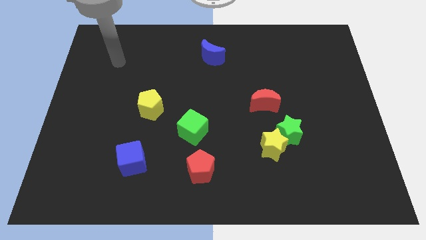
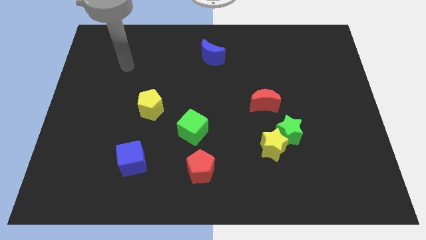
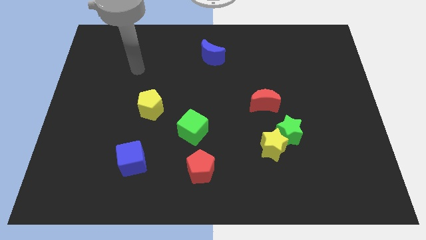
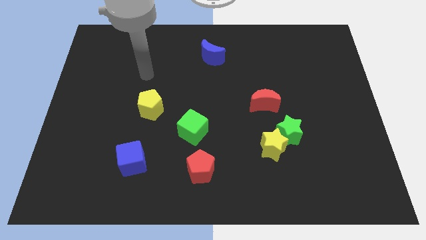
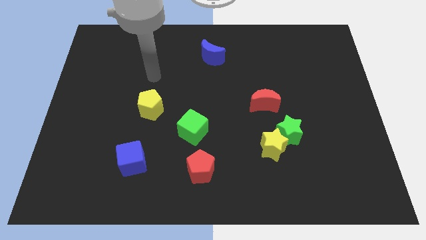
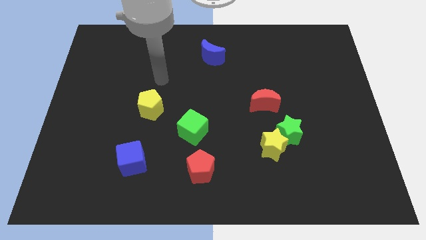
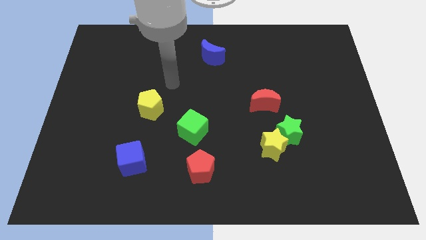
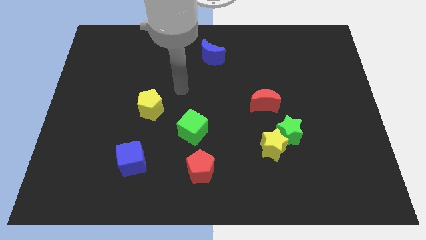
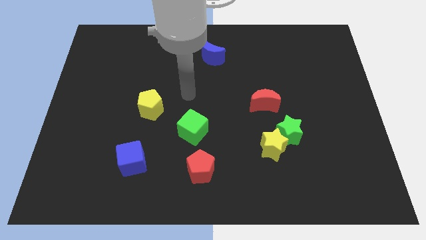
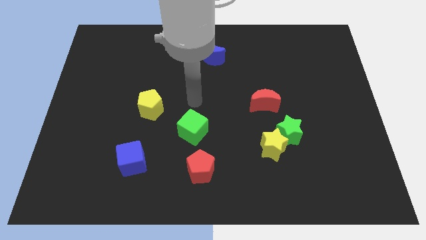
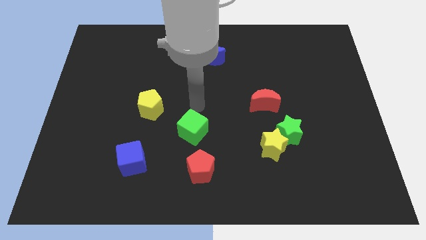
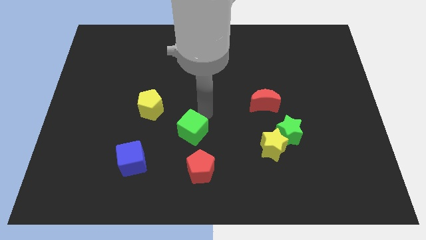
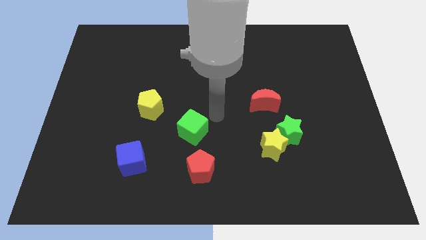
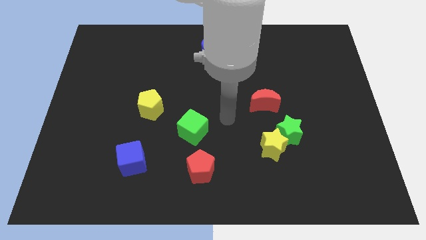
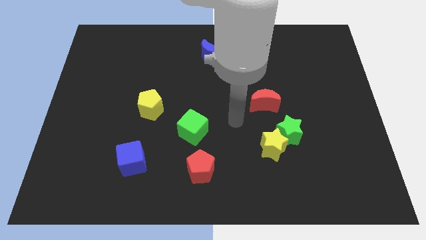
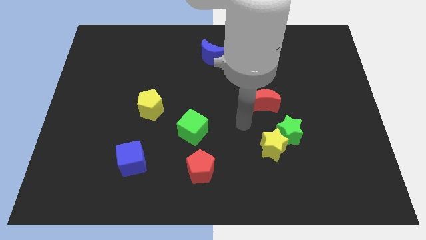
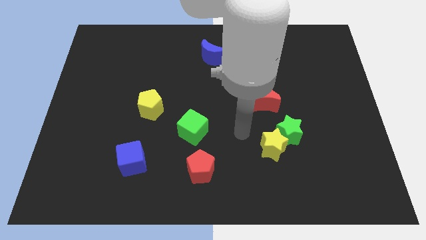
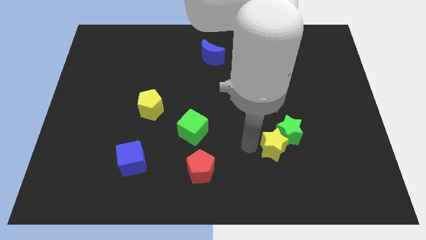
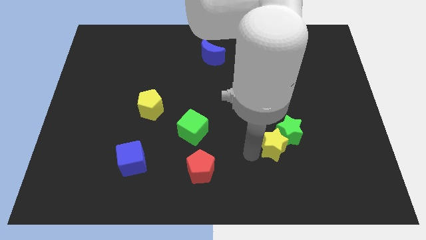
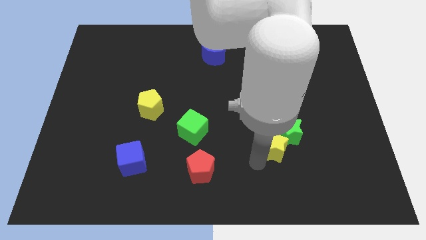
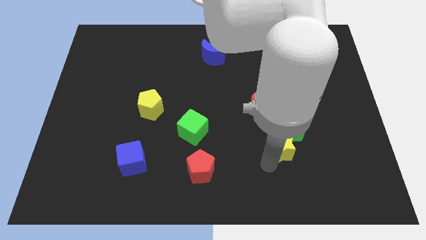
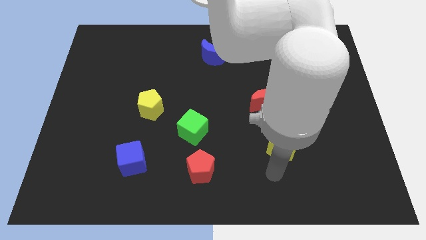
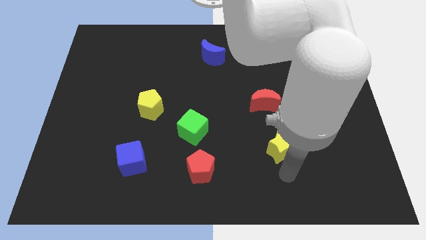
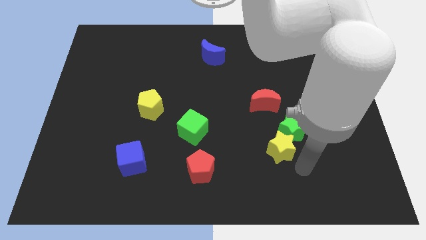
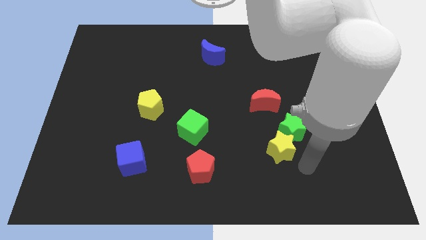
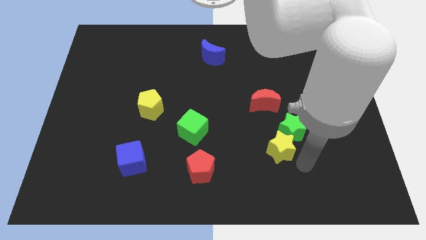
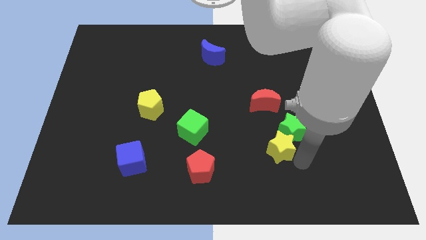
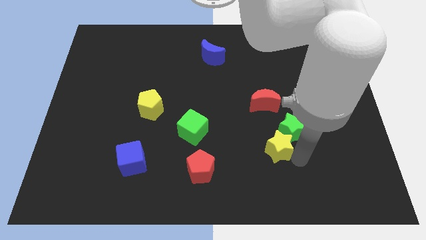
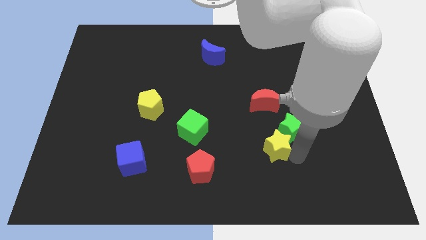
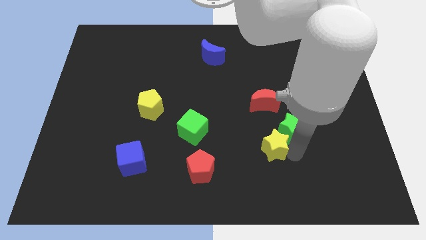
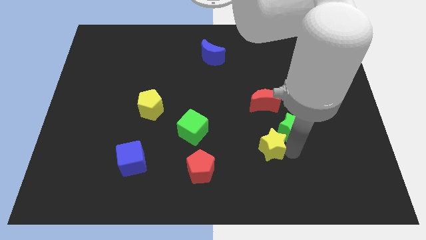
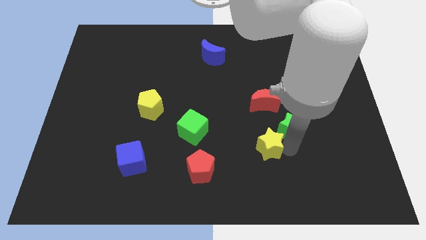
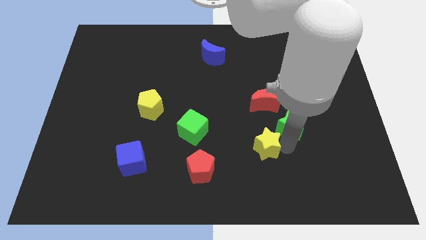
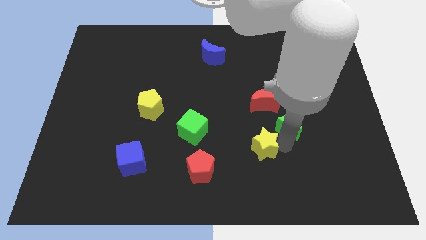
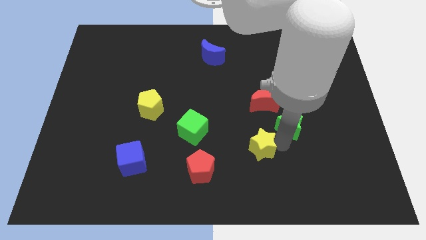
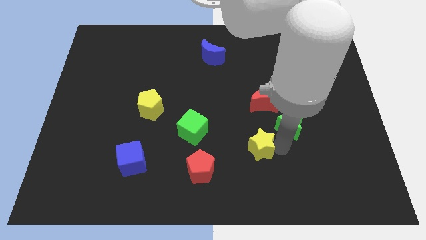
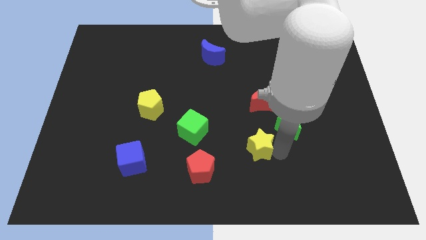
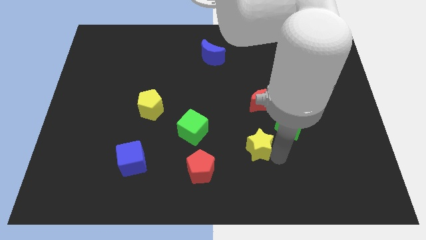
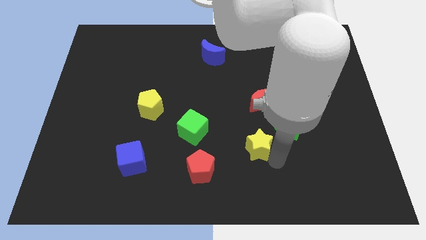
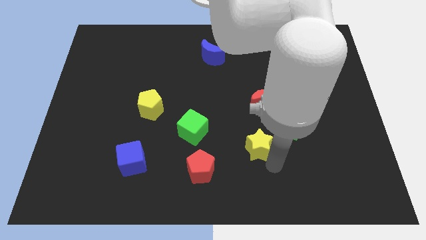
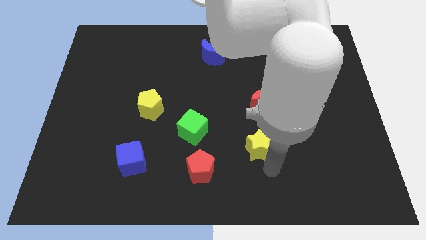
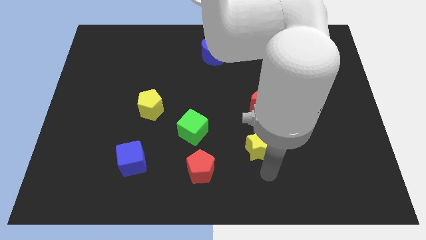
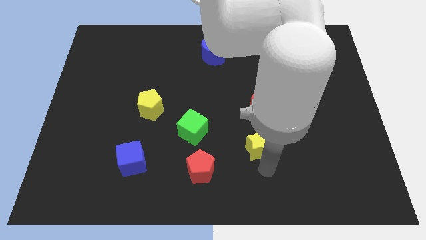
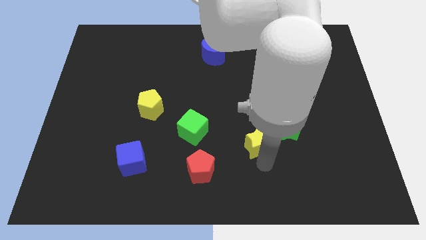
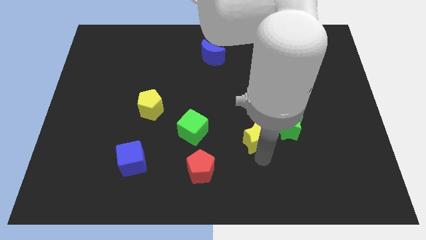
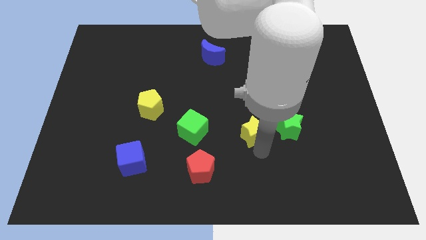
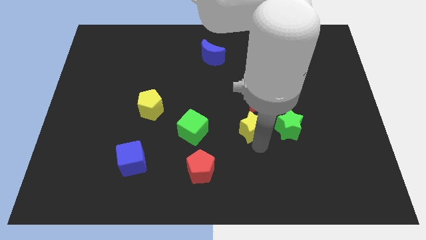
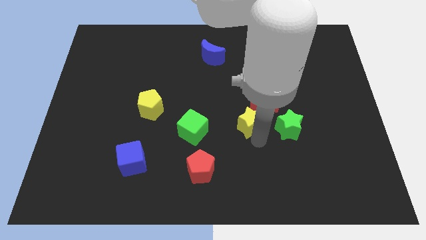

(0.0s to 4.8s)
move the yellow star upwards and to the left diagonally a little

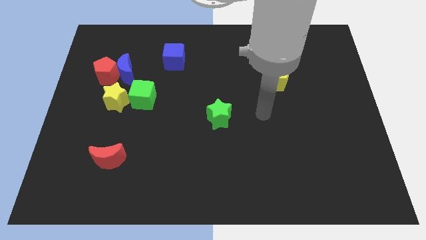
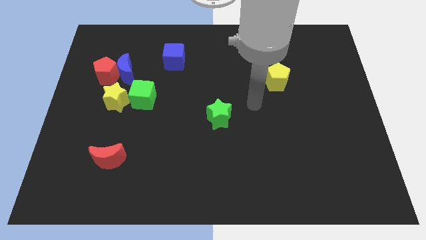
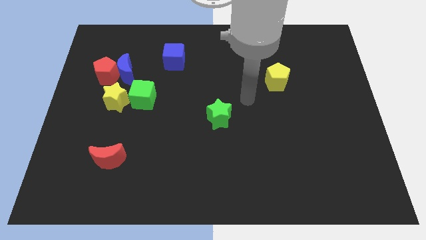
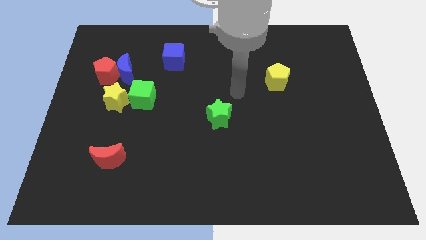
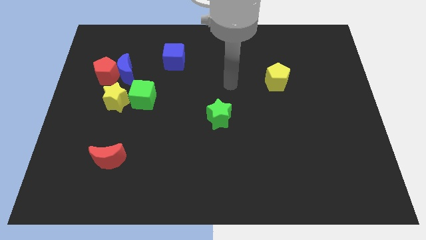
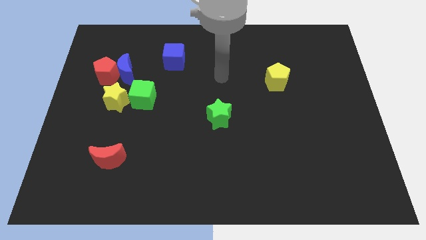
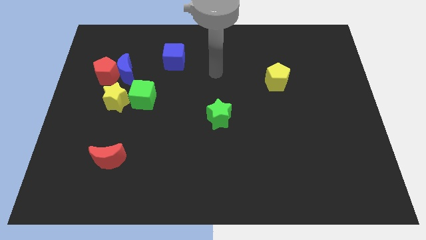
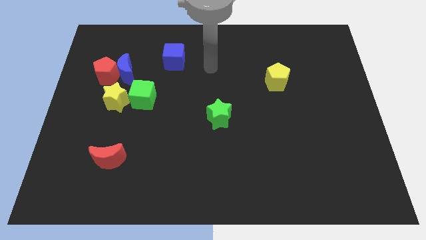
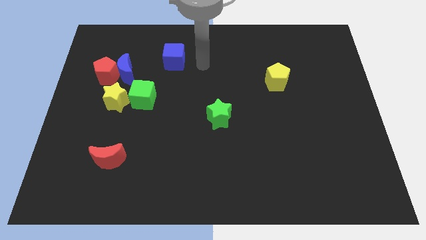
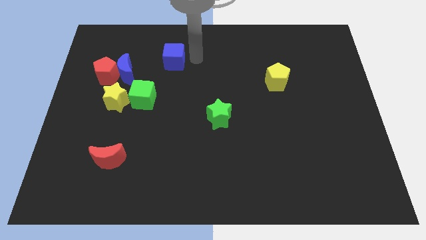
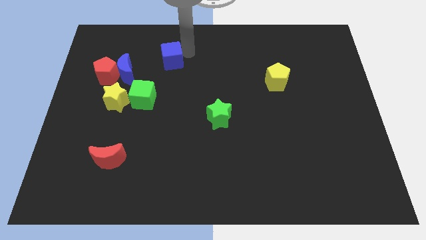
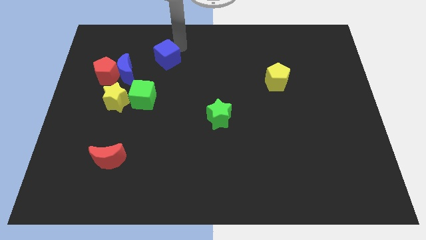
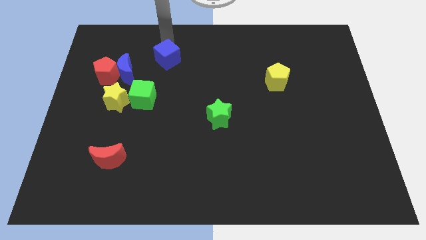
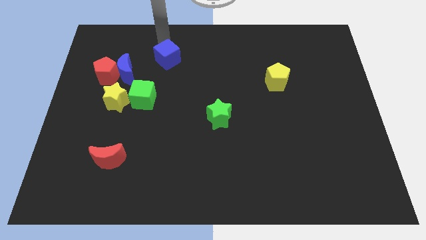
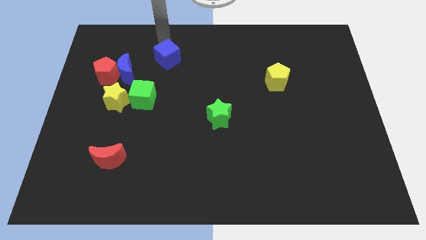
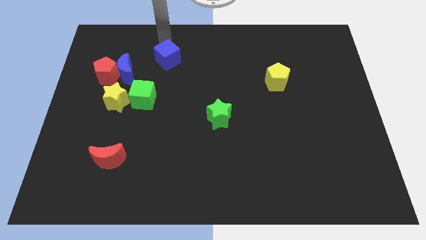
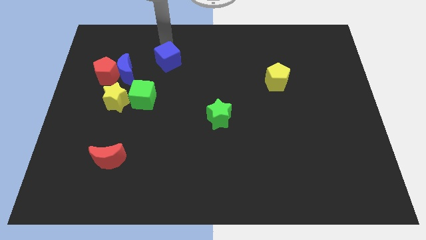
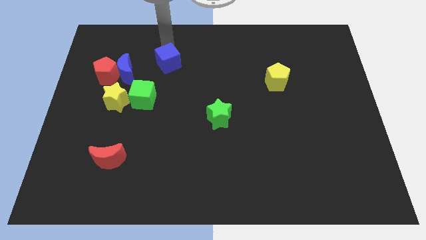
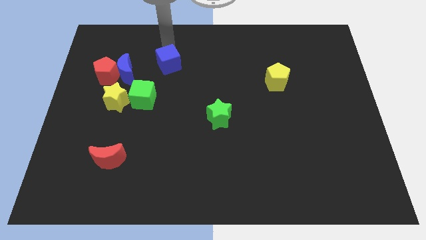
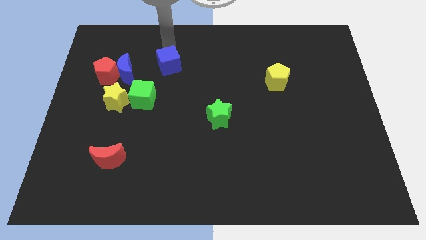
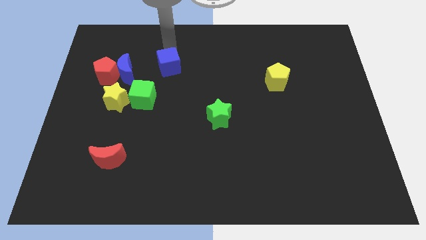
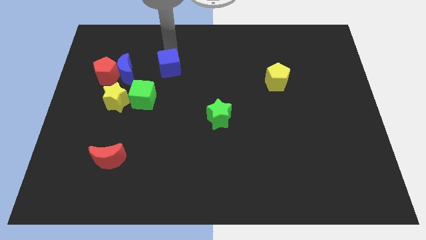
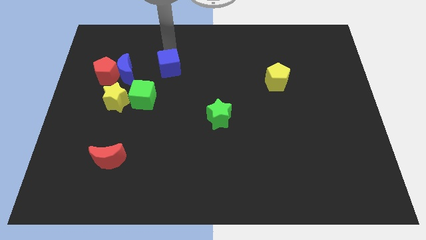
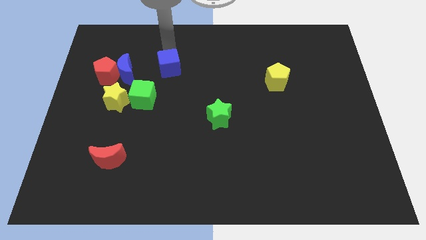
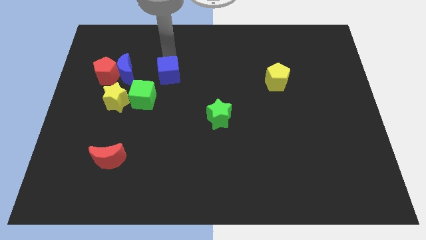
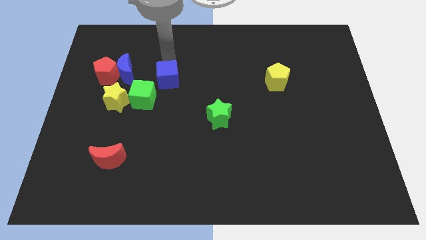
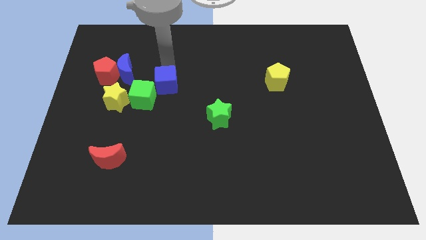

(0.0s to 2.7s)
slightly move the blue cube downwards

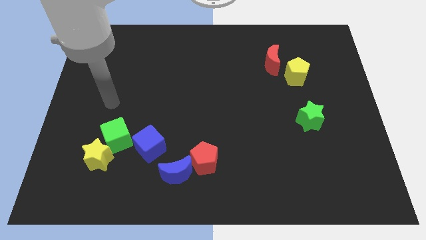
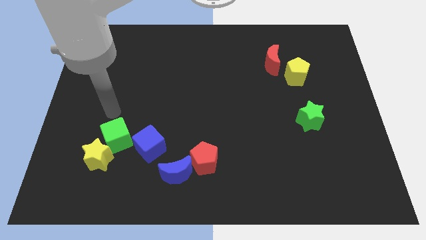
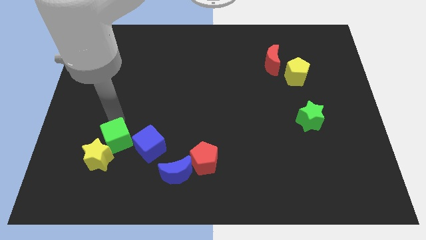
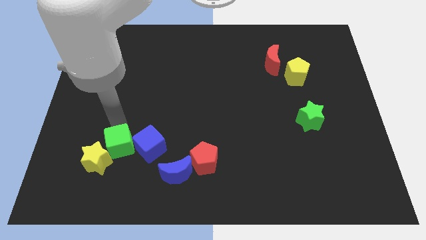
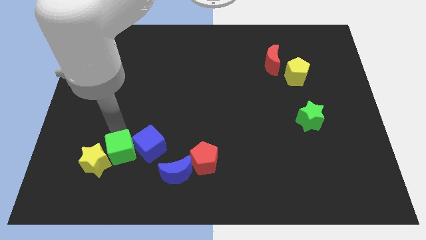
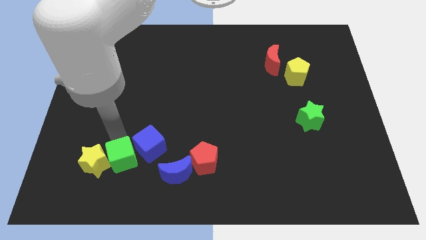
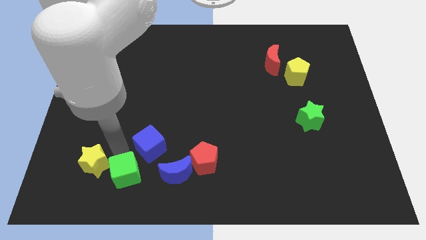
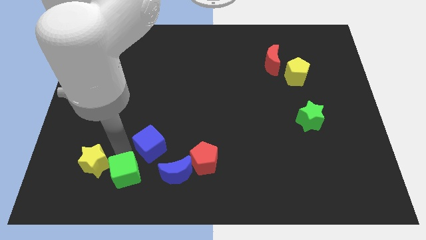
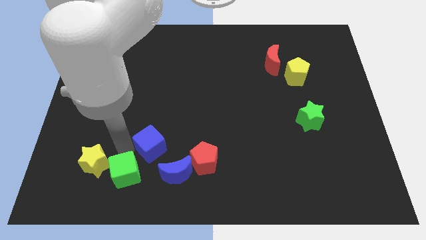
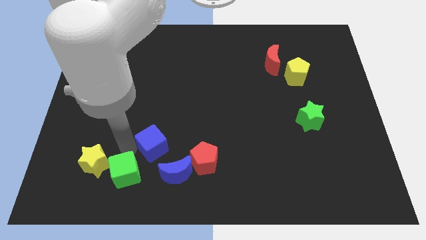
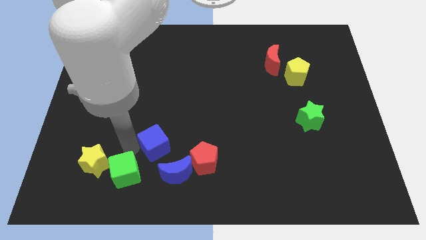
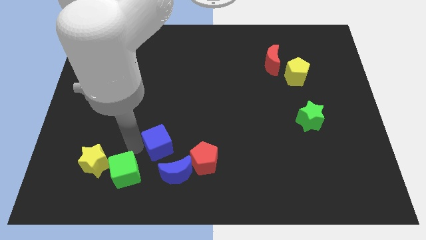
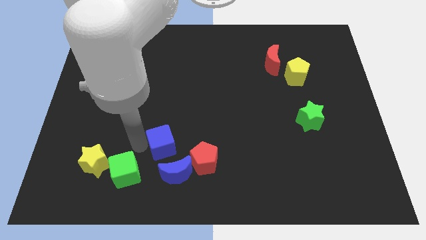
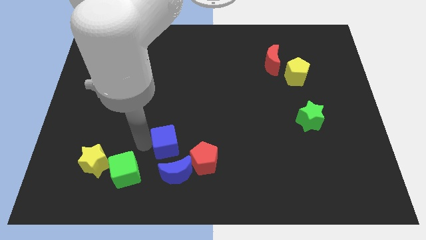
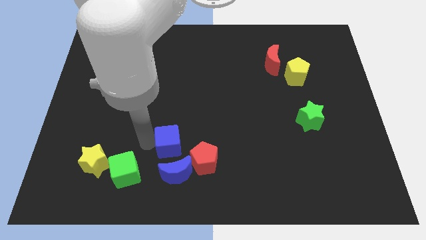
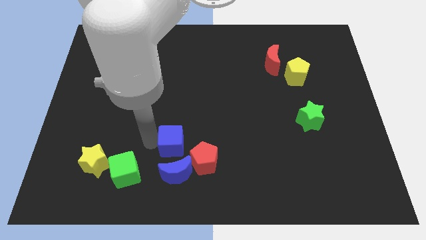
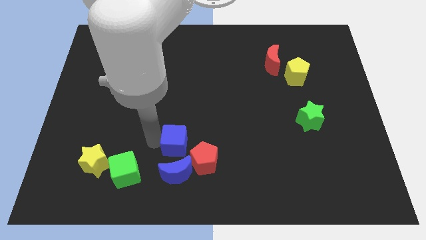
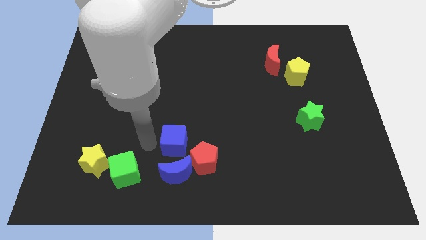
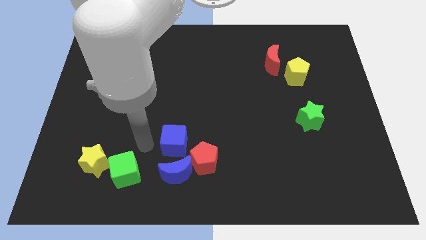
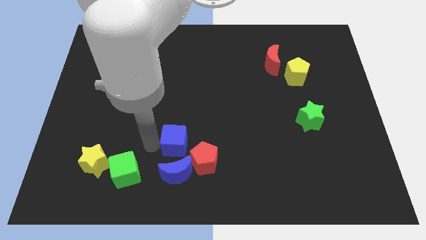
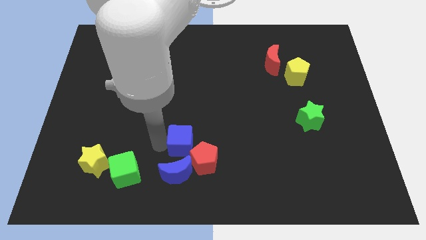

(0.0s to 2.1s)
move the blue cube to the right a bit
